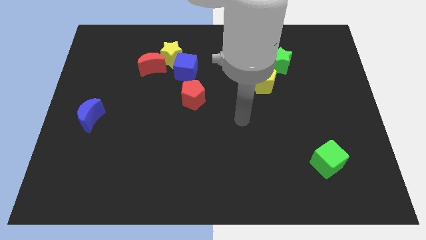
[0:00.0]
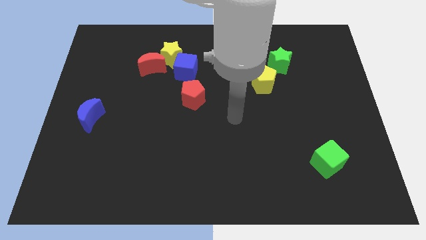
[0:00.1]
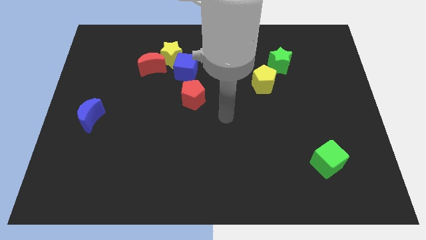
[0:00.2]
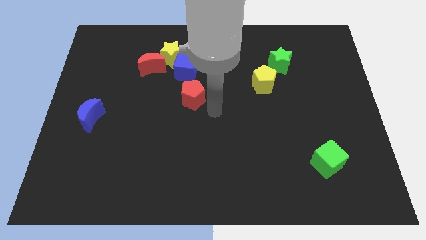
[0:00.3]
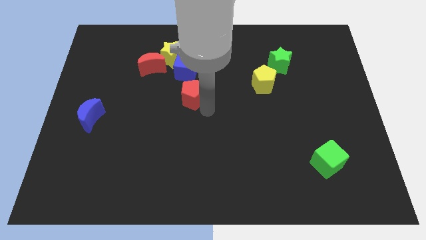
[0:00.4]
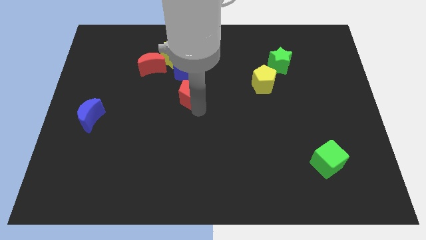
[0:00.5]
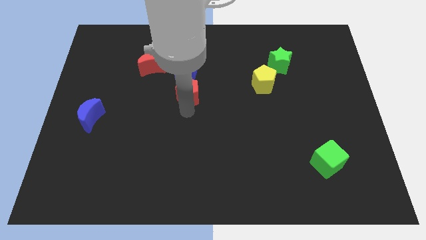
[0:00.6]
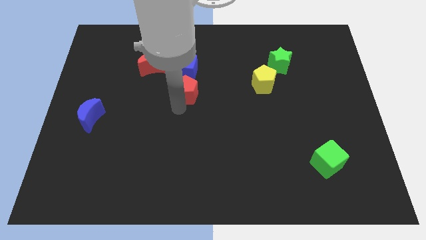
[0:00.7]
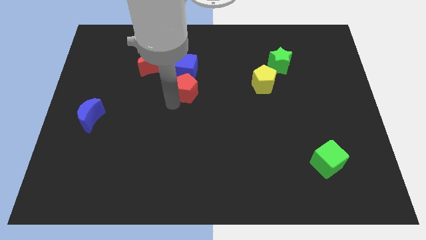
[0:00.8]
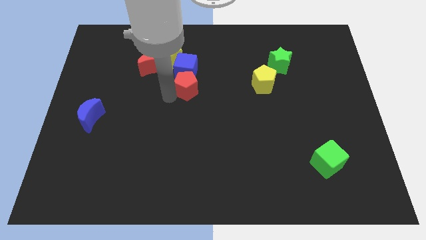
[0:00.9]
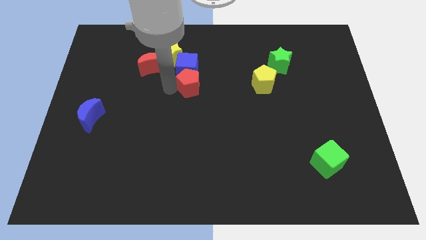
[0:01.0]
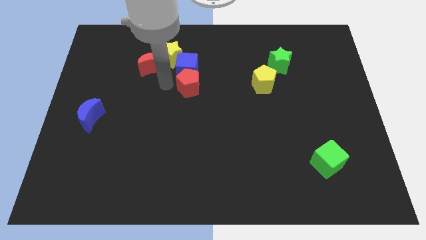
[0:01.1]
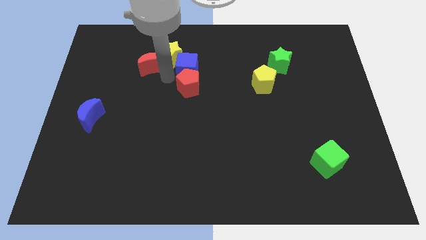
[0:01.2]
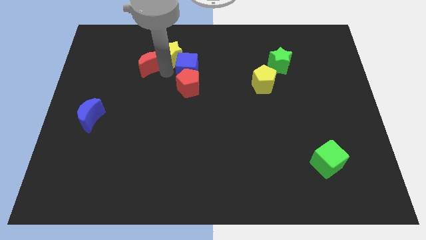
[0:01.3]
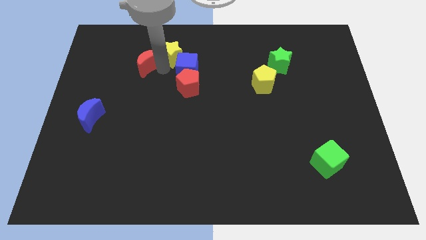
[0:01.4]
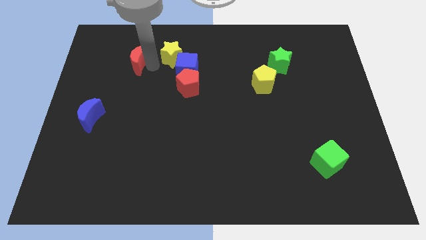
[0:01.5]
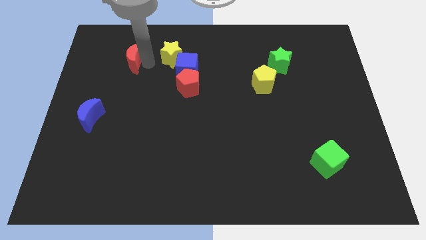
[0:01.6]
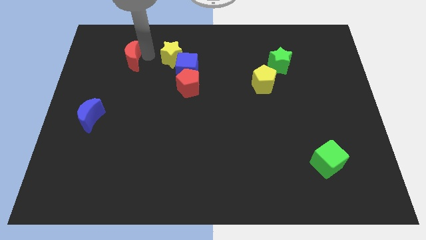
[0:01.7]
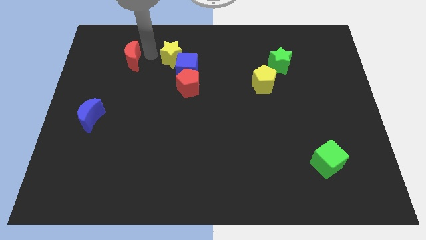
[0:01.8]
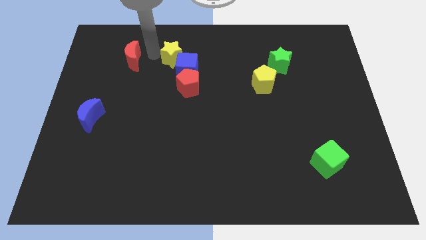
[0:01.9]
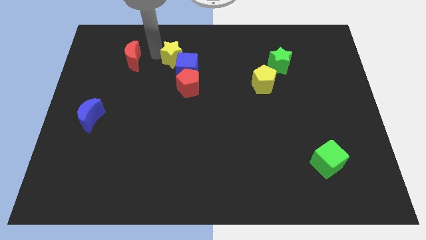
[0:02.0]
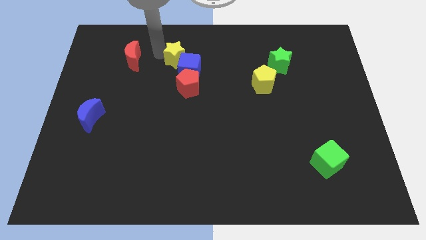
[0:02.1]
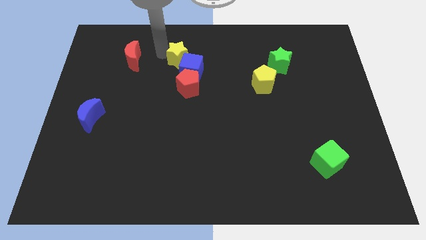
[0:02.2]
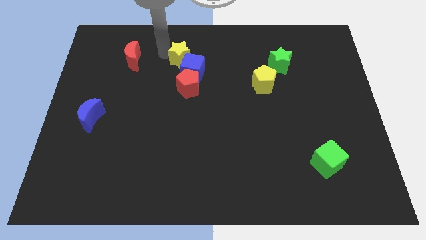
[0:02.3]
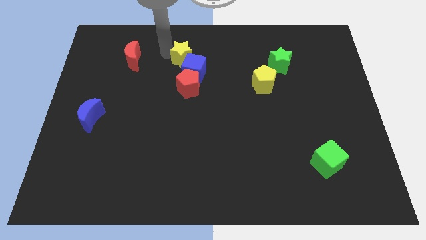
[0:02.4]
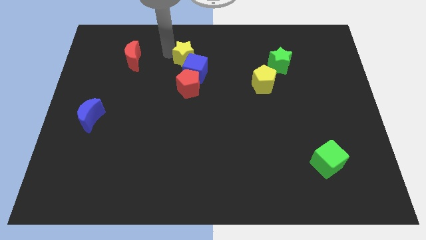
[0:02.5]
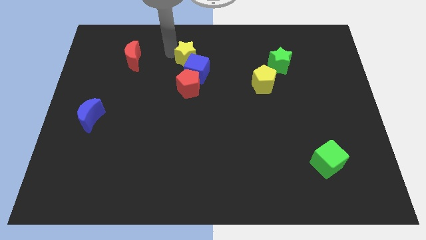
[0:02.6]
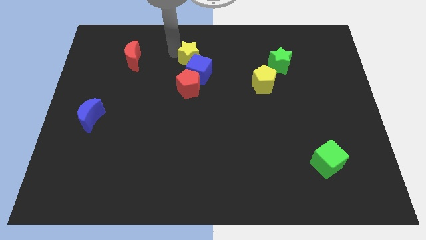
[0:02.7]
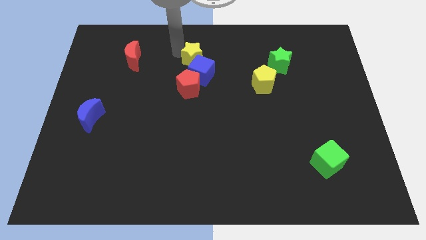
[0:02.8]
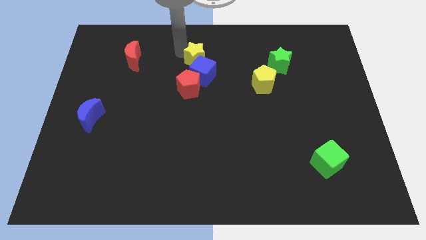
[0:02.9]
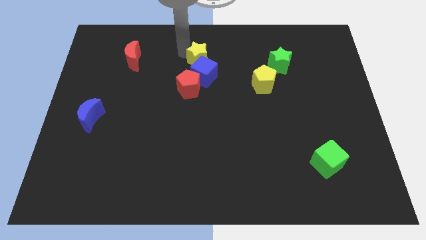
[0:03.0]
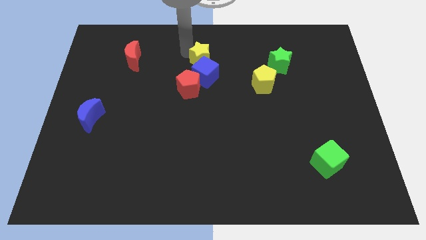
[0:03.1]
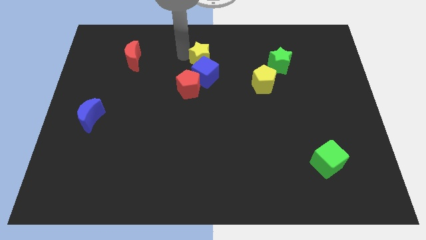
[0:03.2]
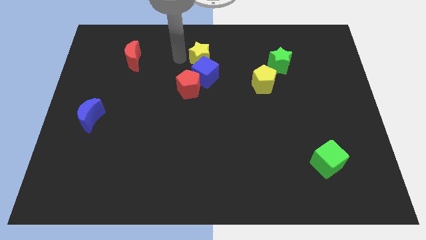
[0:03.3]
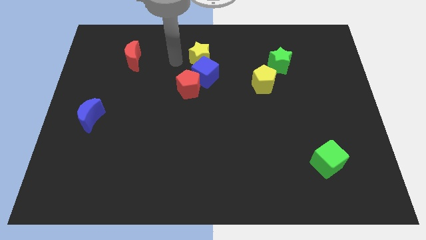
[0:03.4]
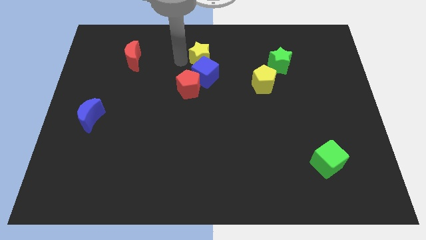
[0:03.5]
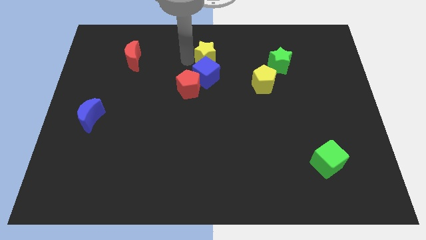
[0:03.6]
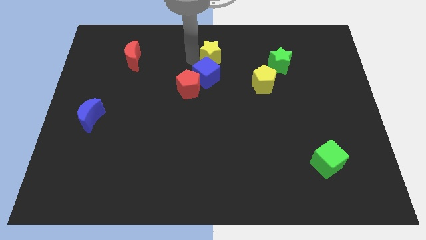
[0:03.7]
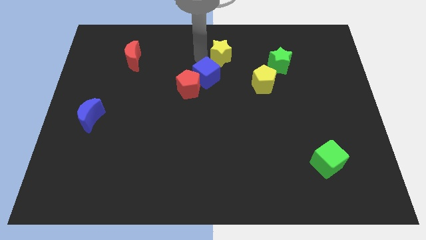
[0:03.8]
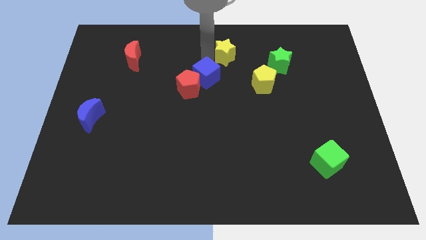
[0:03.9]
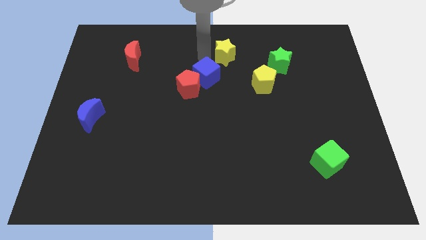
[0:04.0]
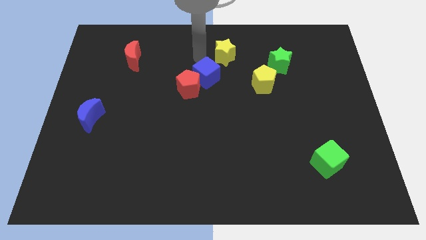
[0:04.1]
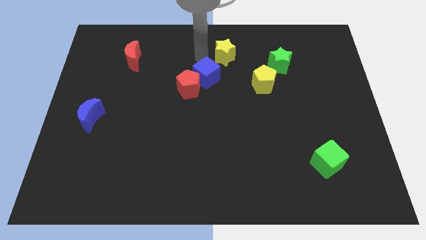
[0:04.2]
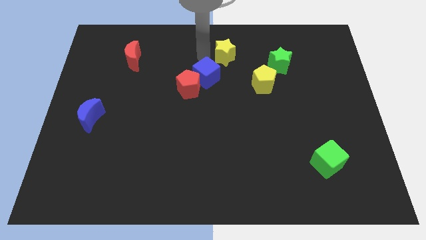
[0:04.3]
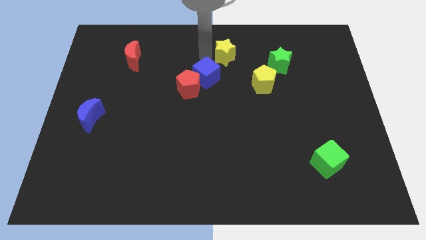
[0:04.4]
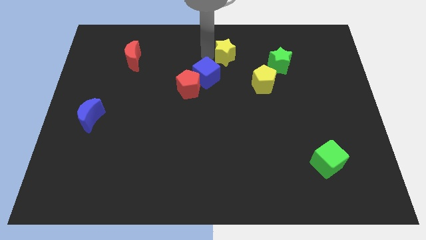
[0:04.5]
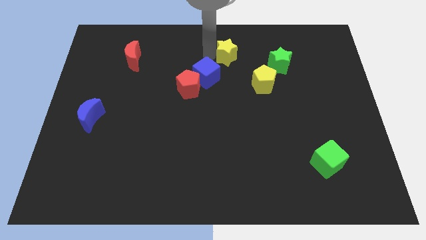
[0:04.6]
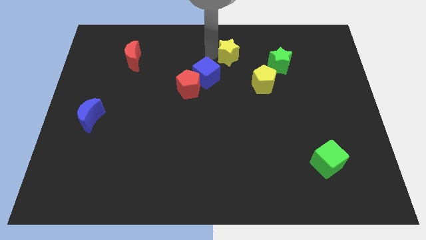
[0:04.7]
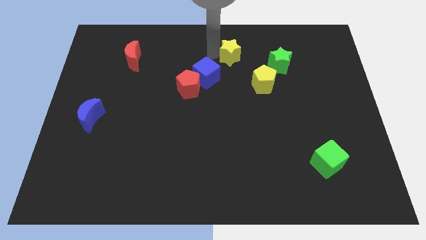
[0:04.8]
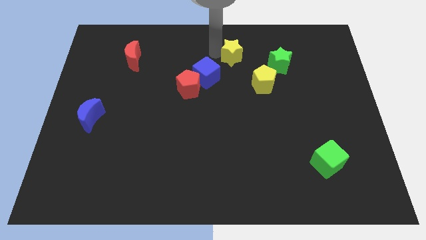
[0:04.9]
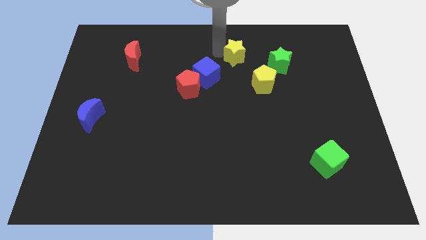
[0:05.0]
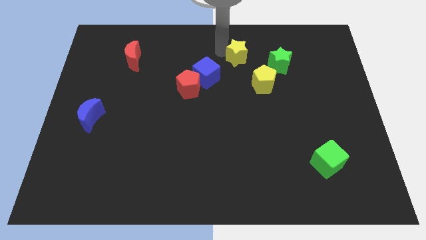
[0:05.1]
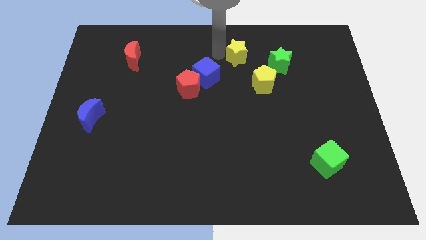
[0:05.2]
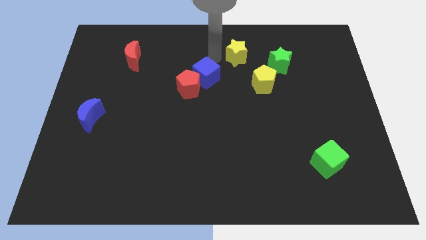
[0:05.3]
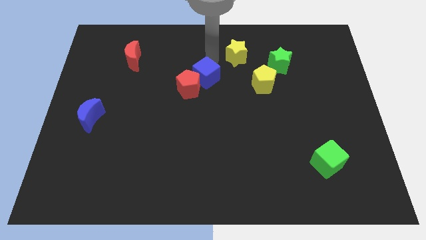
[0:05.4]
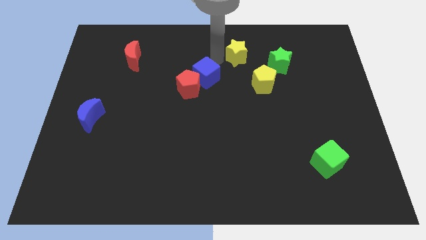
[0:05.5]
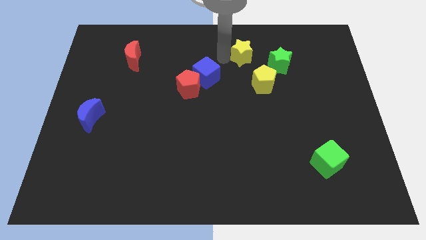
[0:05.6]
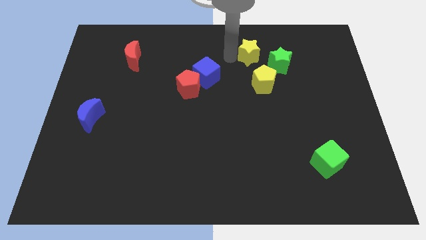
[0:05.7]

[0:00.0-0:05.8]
move the yellow star right

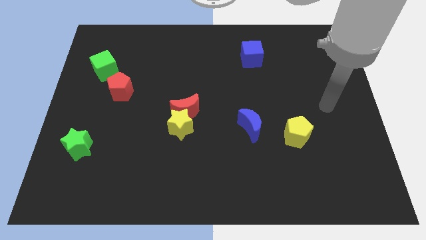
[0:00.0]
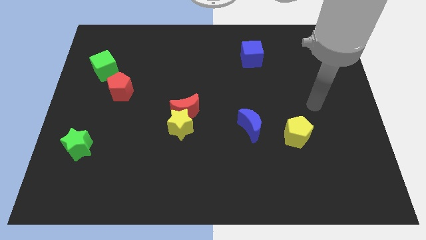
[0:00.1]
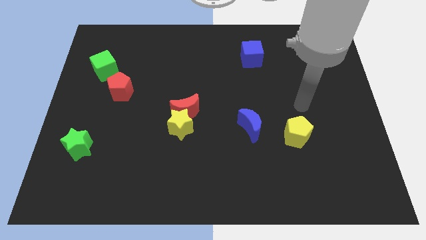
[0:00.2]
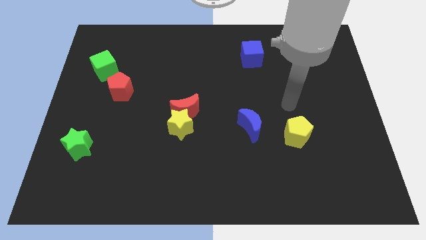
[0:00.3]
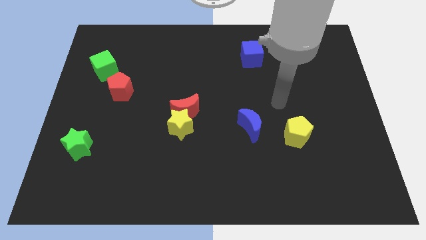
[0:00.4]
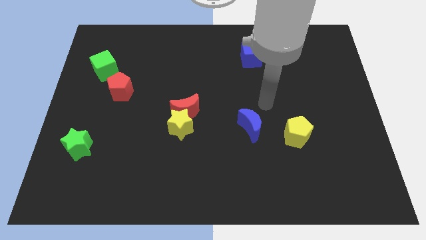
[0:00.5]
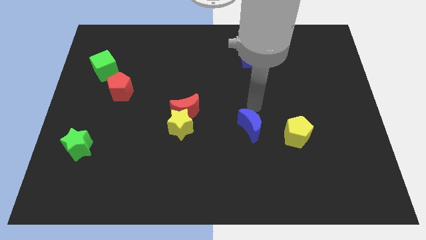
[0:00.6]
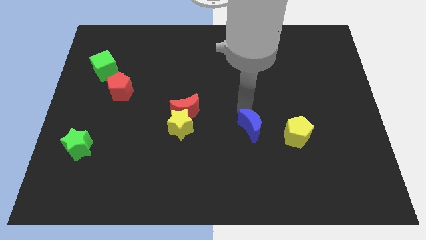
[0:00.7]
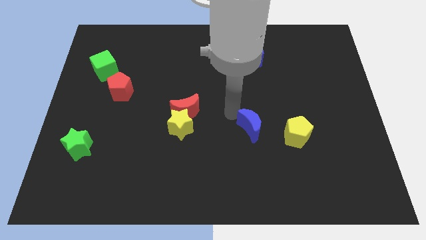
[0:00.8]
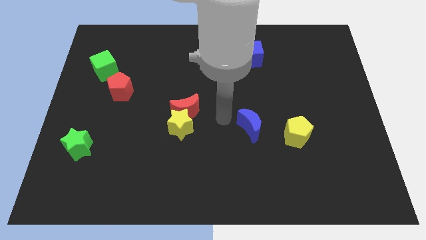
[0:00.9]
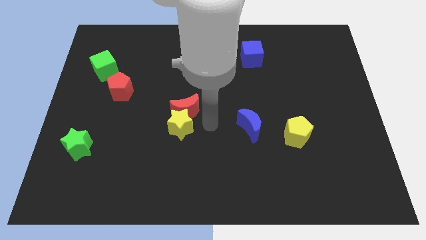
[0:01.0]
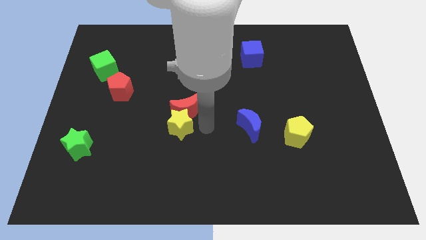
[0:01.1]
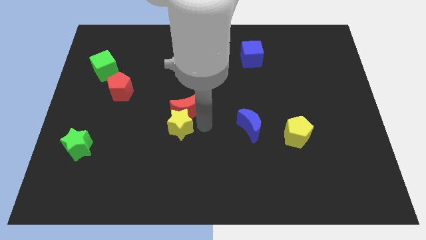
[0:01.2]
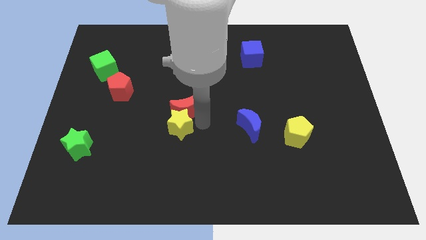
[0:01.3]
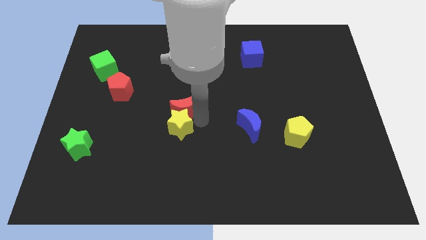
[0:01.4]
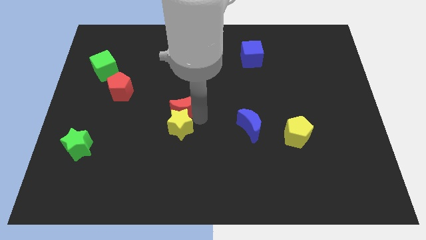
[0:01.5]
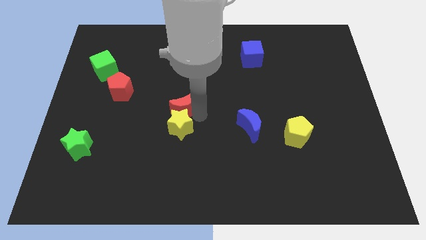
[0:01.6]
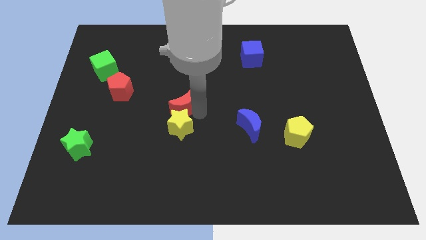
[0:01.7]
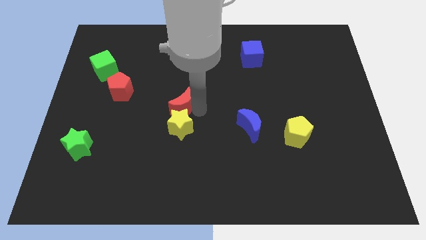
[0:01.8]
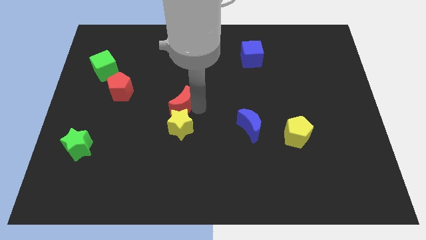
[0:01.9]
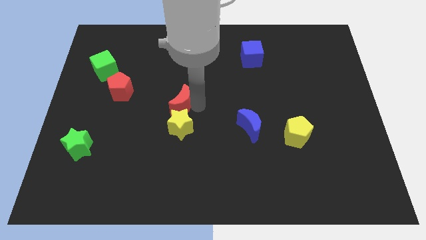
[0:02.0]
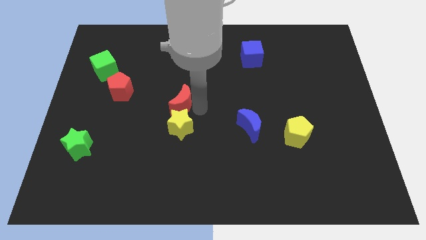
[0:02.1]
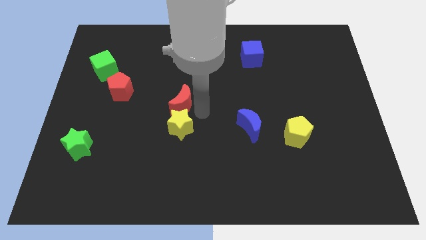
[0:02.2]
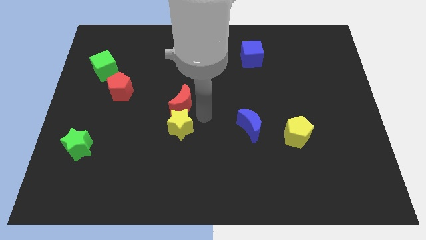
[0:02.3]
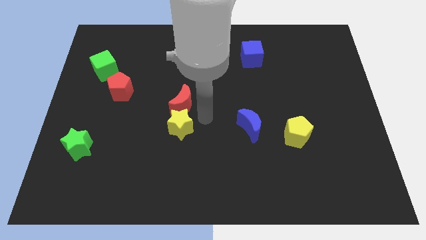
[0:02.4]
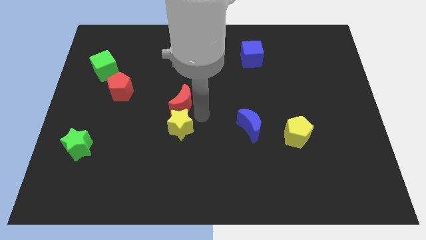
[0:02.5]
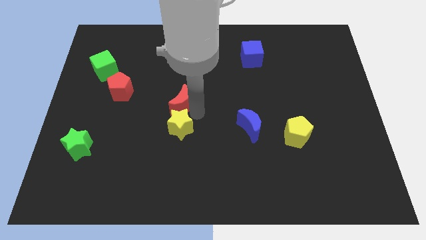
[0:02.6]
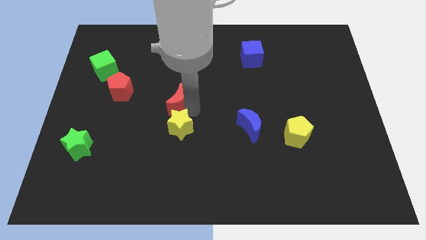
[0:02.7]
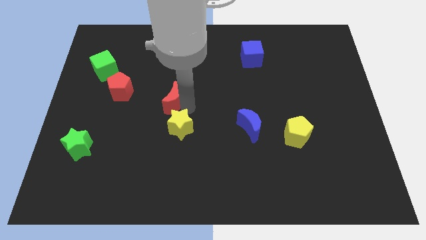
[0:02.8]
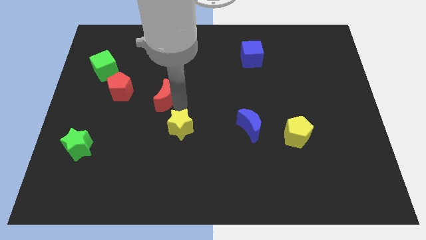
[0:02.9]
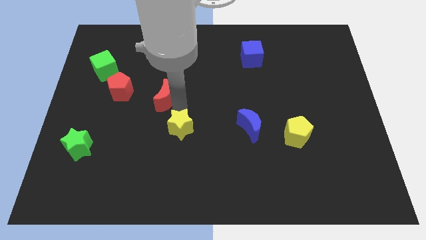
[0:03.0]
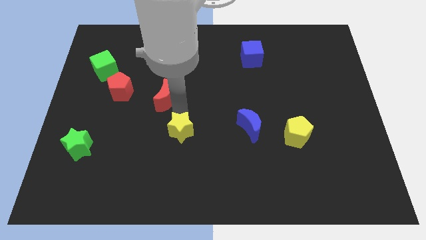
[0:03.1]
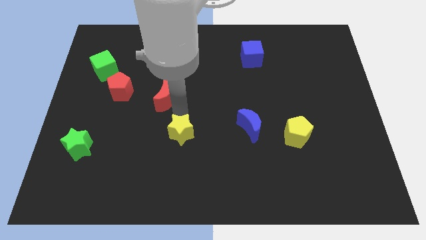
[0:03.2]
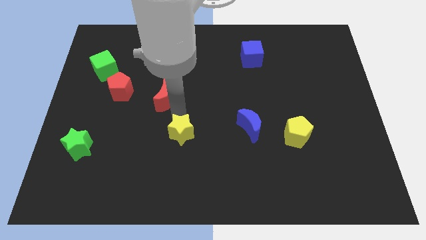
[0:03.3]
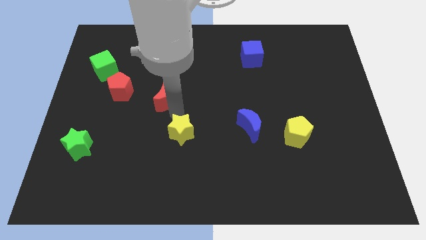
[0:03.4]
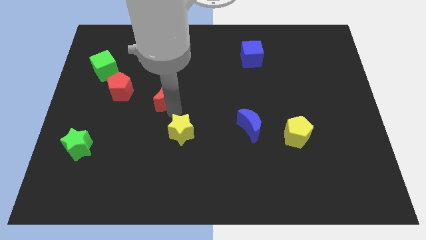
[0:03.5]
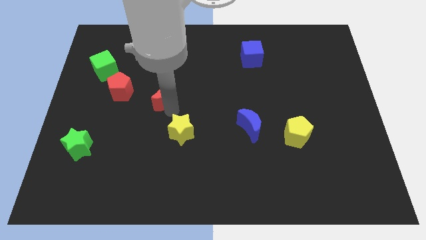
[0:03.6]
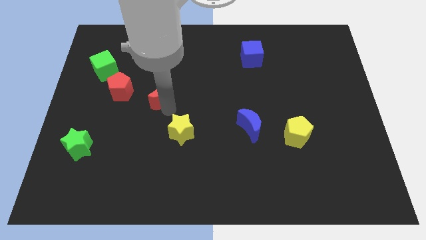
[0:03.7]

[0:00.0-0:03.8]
move the red moon a little up and to the left
